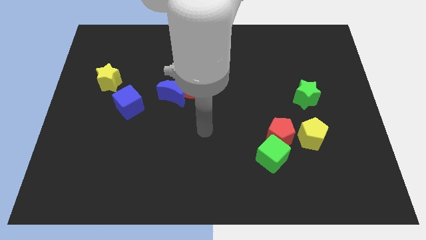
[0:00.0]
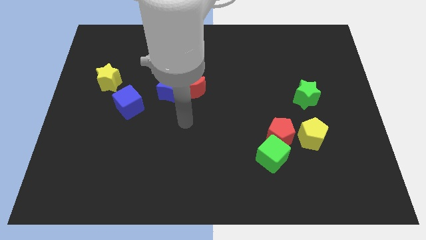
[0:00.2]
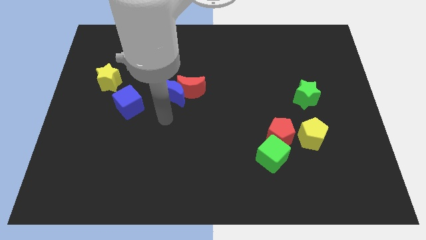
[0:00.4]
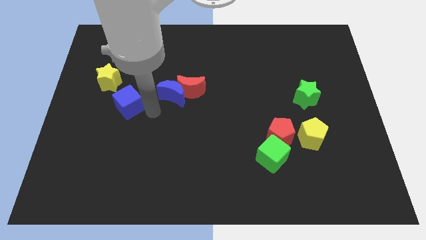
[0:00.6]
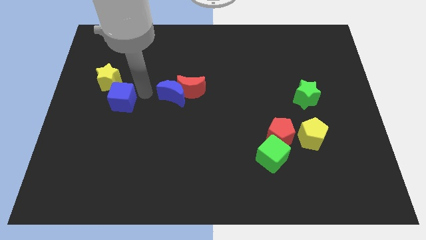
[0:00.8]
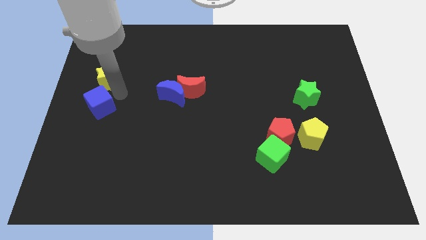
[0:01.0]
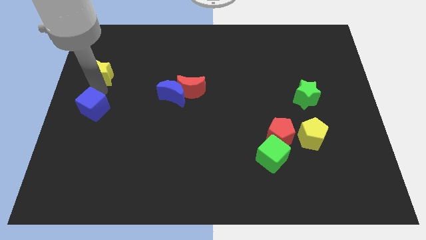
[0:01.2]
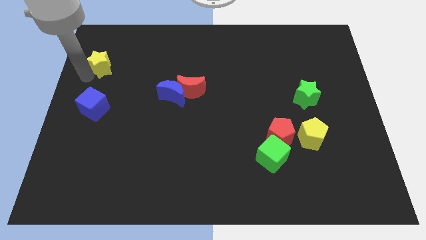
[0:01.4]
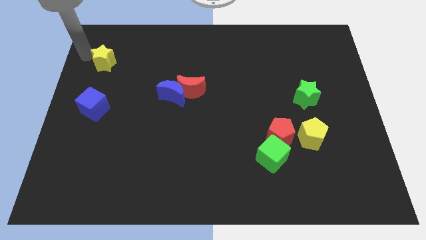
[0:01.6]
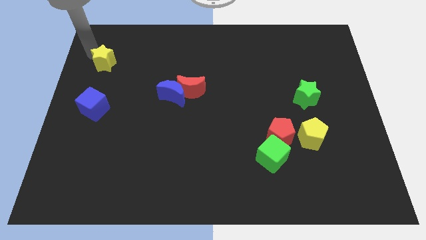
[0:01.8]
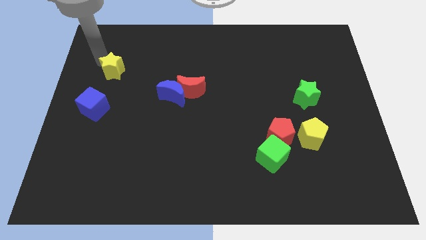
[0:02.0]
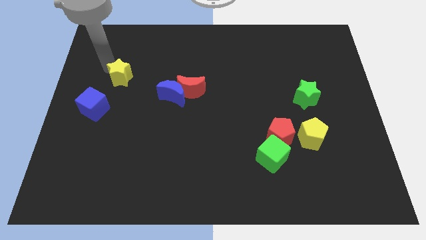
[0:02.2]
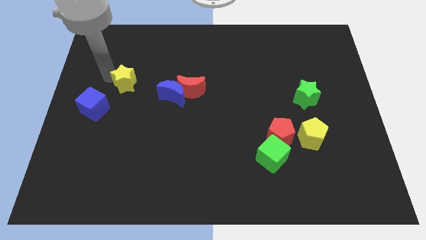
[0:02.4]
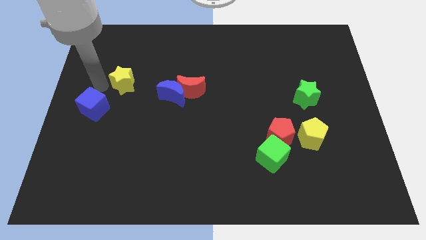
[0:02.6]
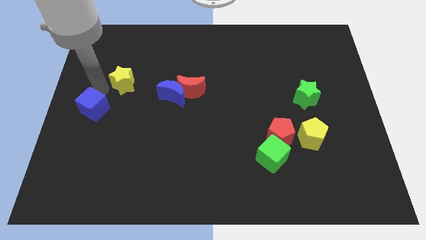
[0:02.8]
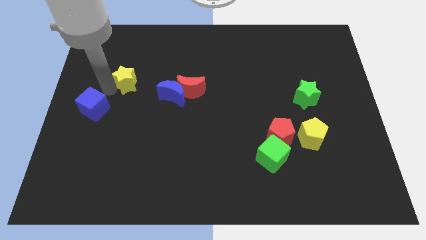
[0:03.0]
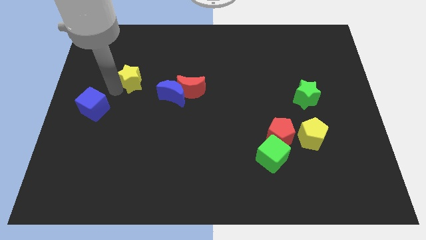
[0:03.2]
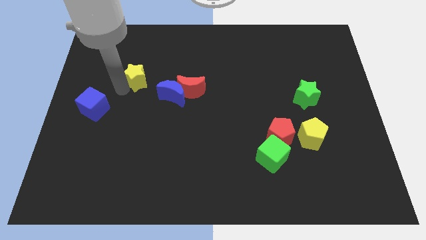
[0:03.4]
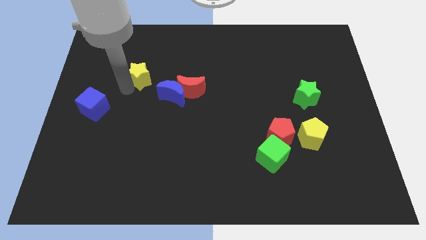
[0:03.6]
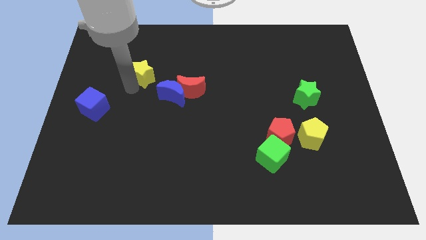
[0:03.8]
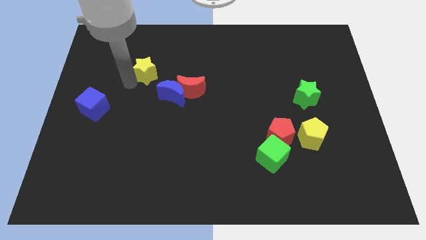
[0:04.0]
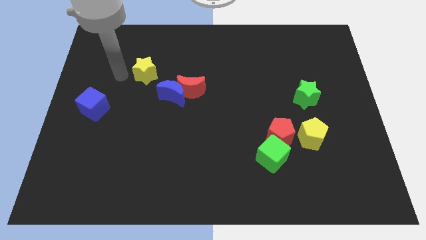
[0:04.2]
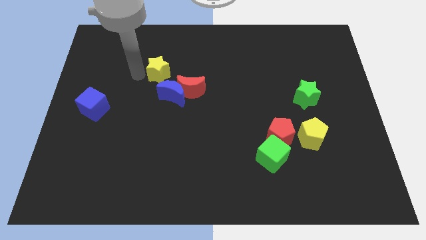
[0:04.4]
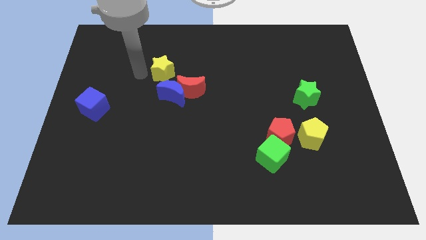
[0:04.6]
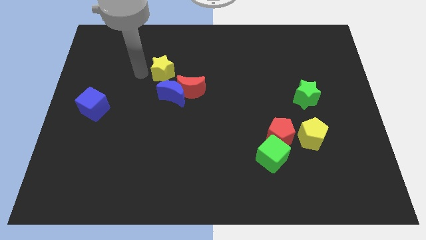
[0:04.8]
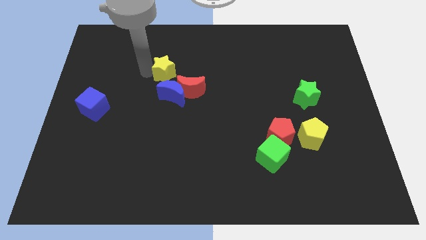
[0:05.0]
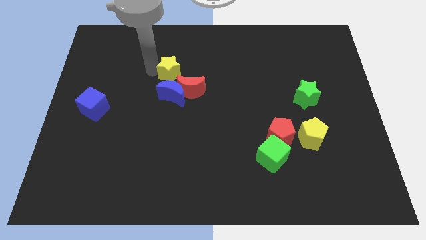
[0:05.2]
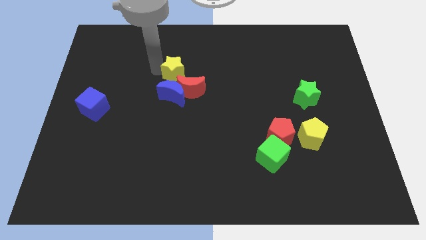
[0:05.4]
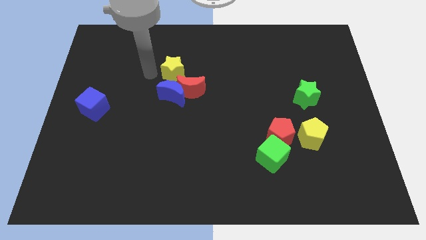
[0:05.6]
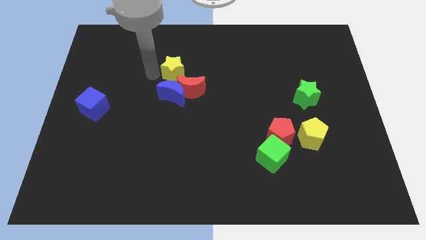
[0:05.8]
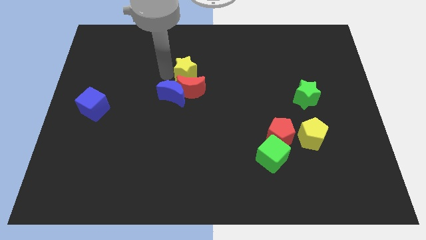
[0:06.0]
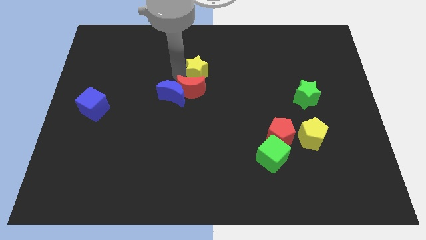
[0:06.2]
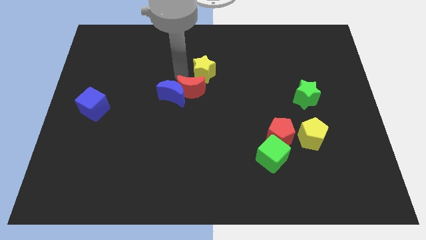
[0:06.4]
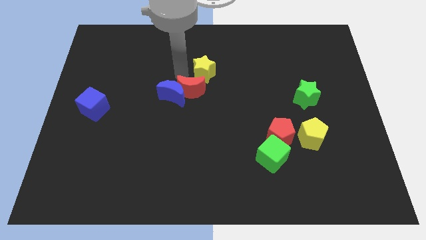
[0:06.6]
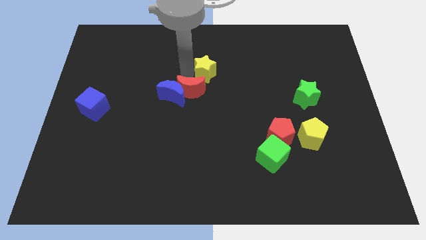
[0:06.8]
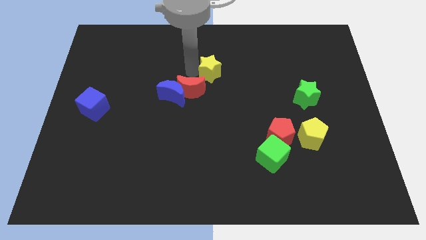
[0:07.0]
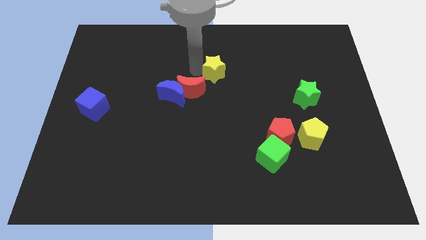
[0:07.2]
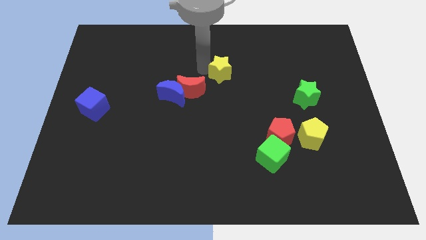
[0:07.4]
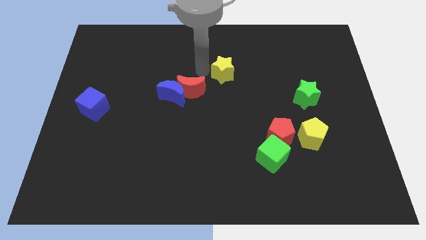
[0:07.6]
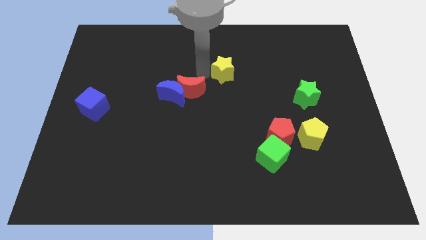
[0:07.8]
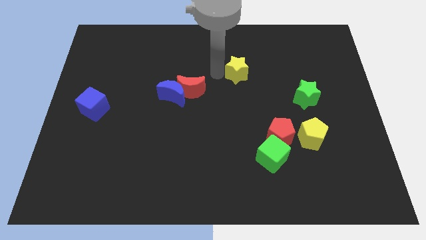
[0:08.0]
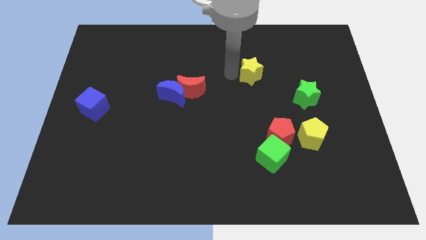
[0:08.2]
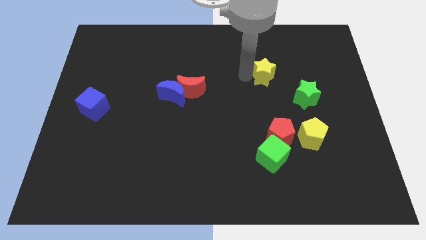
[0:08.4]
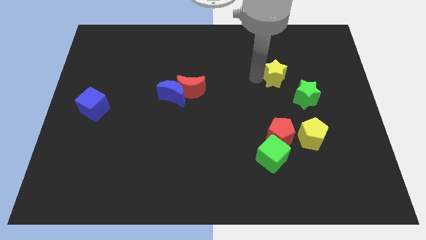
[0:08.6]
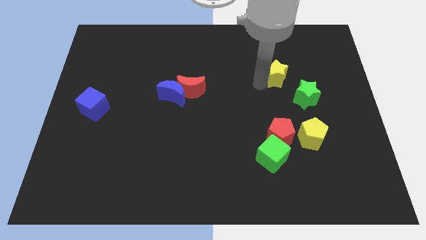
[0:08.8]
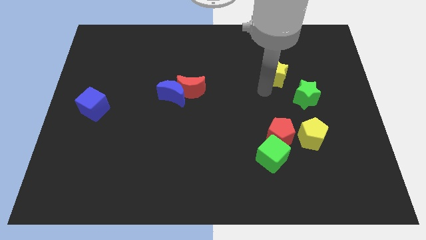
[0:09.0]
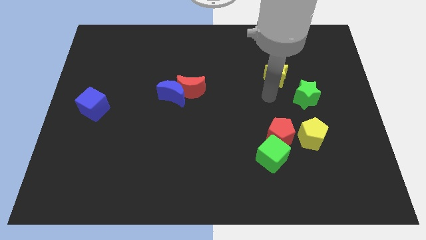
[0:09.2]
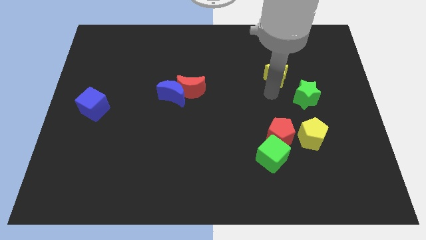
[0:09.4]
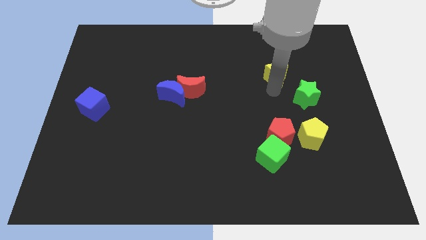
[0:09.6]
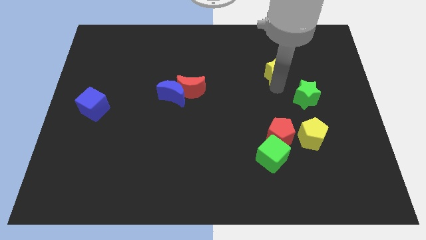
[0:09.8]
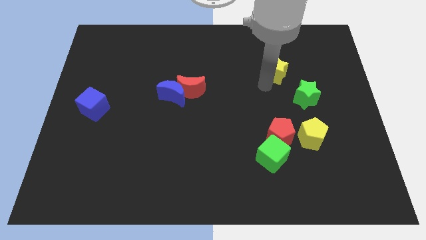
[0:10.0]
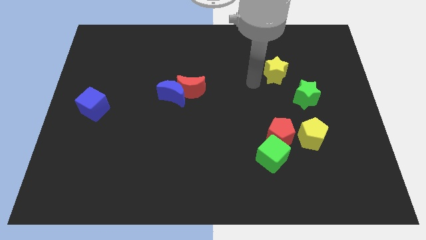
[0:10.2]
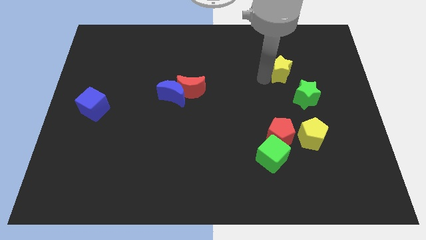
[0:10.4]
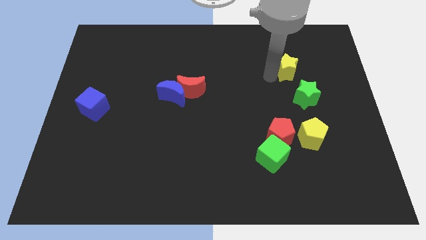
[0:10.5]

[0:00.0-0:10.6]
put the yellow star to the top side of the green star

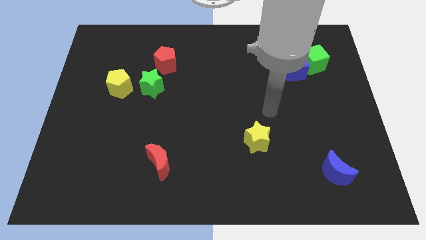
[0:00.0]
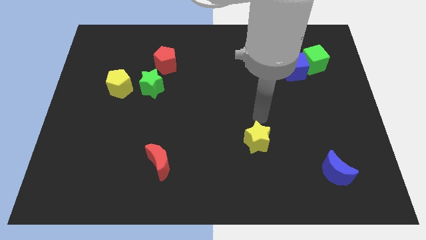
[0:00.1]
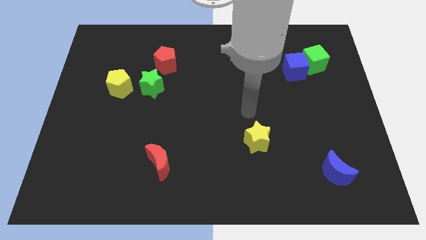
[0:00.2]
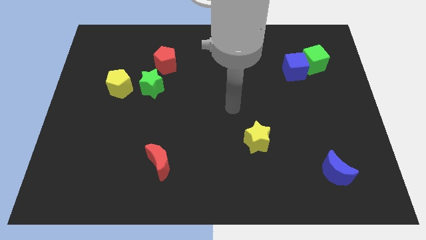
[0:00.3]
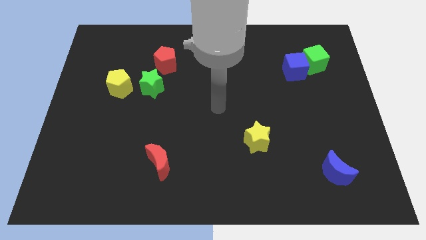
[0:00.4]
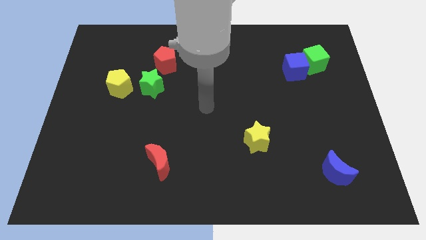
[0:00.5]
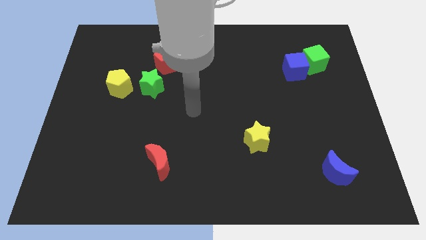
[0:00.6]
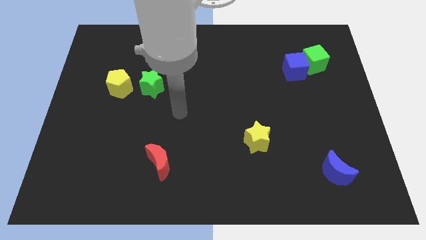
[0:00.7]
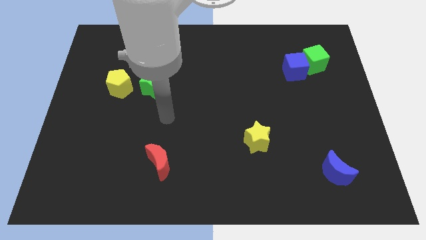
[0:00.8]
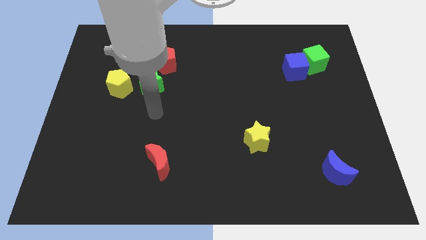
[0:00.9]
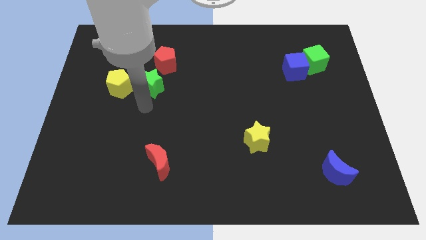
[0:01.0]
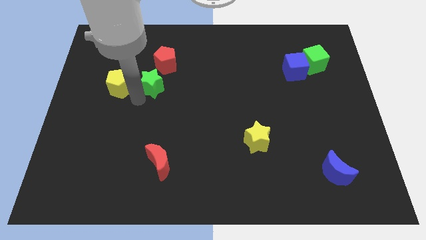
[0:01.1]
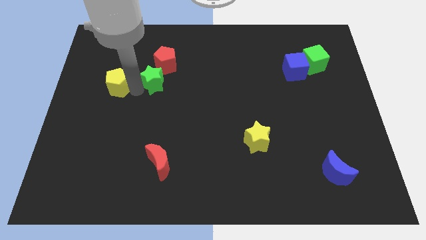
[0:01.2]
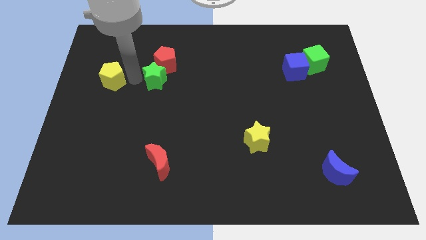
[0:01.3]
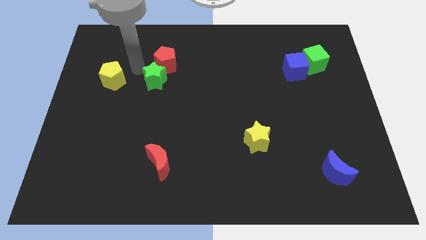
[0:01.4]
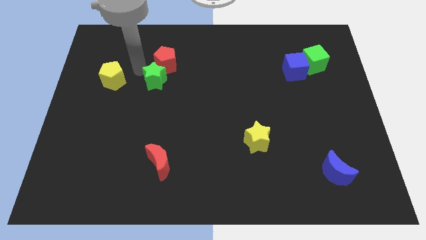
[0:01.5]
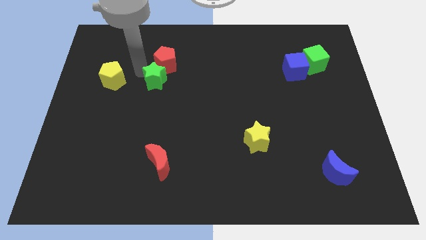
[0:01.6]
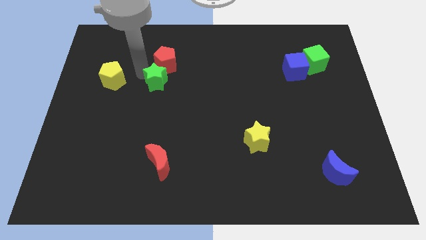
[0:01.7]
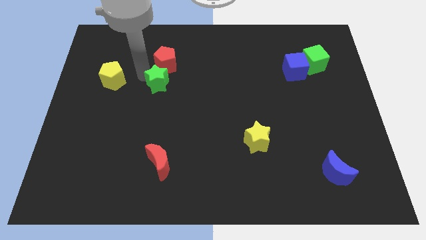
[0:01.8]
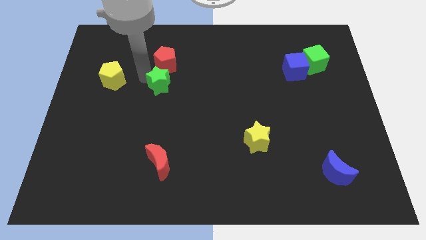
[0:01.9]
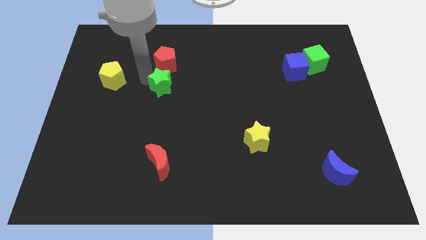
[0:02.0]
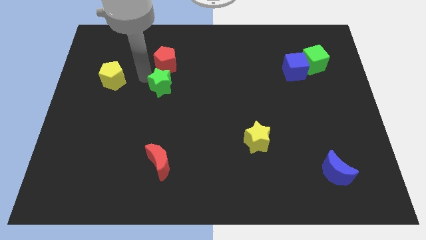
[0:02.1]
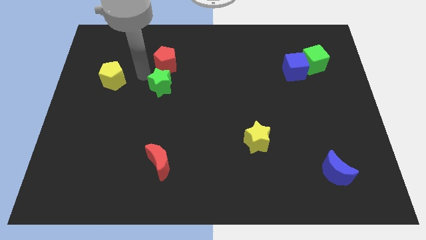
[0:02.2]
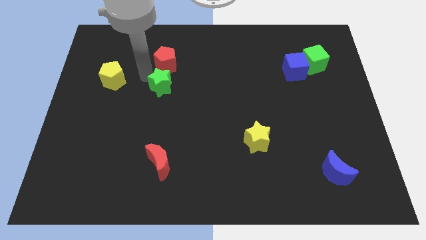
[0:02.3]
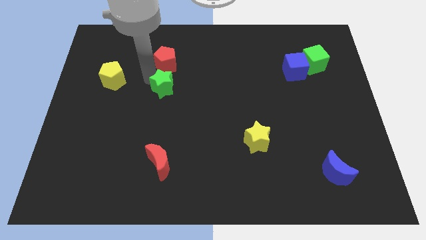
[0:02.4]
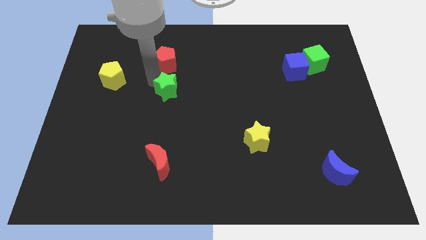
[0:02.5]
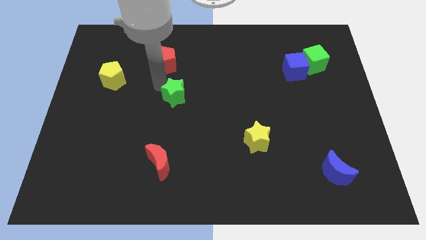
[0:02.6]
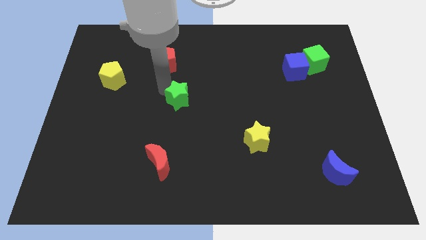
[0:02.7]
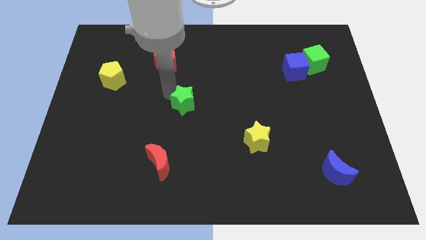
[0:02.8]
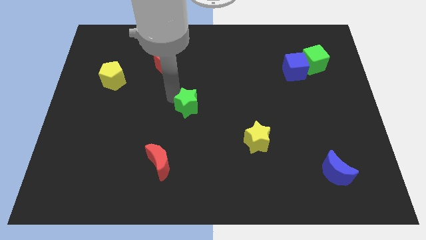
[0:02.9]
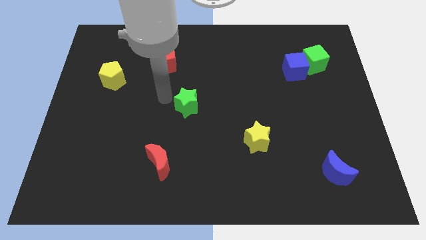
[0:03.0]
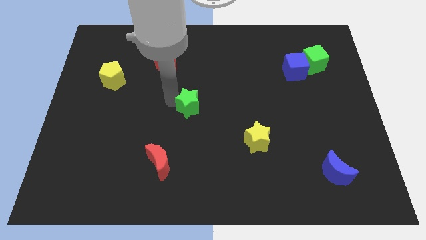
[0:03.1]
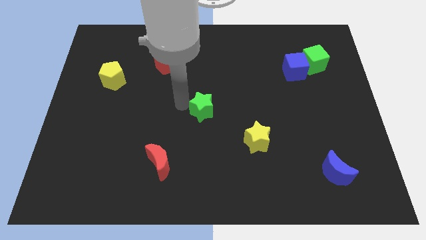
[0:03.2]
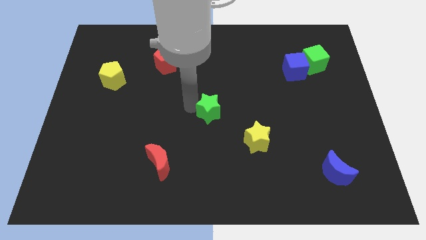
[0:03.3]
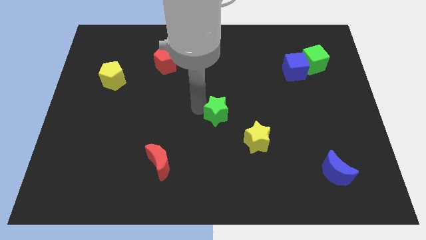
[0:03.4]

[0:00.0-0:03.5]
push the green star diagonally up and to the left of the yellow star
